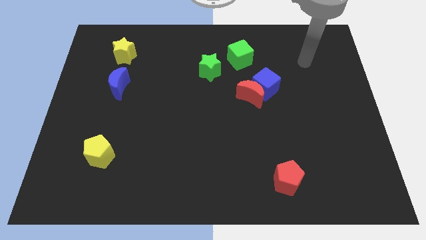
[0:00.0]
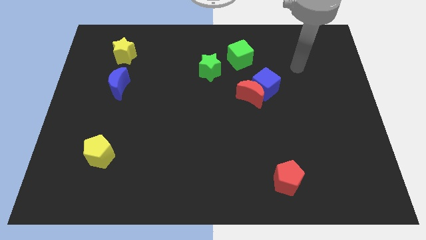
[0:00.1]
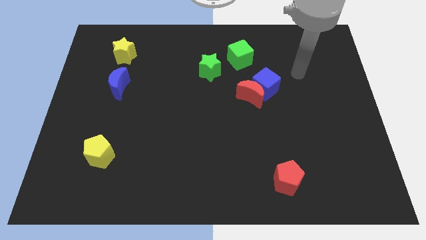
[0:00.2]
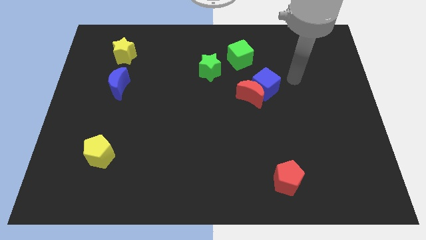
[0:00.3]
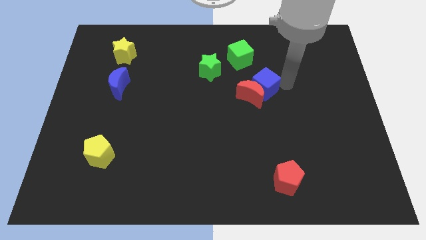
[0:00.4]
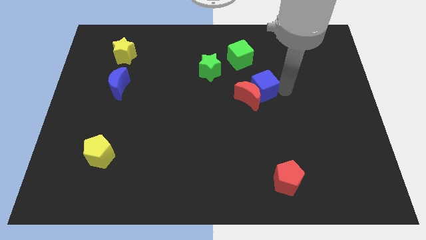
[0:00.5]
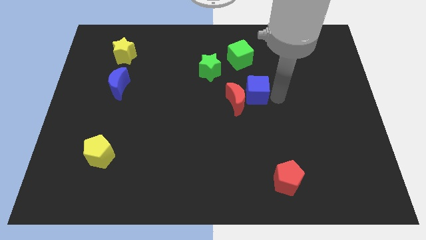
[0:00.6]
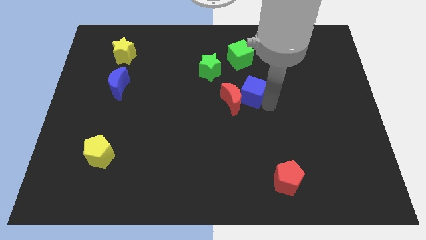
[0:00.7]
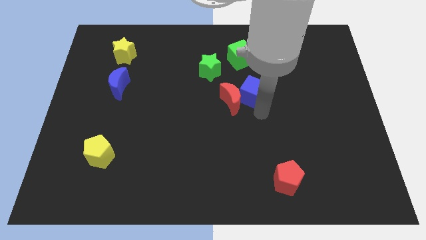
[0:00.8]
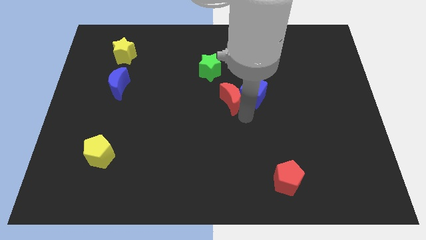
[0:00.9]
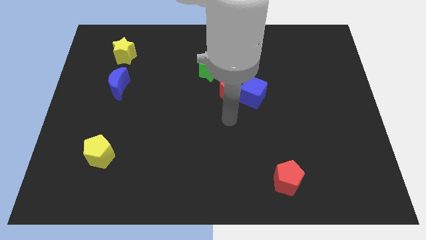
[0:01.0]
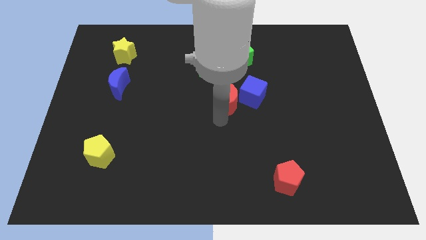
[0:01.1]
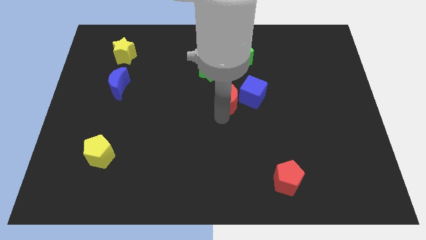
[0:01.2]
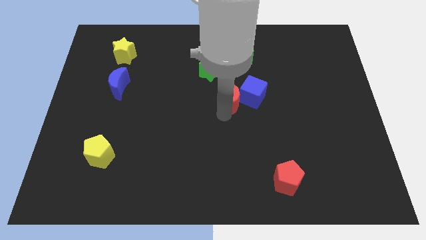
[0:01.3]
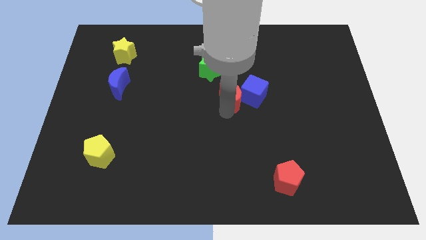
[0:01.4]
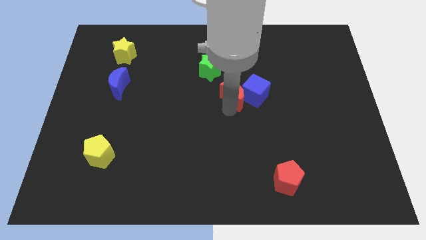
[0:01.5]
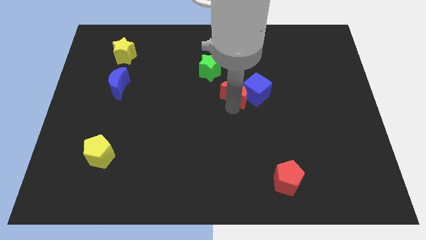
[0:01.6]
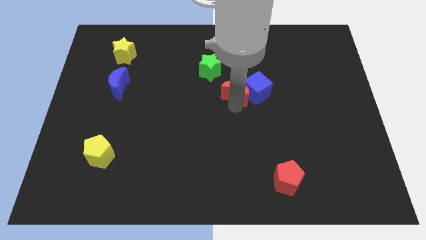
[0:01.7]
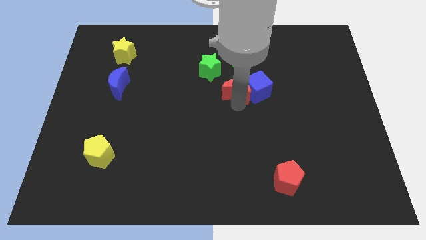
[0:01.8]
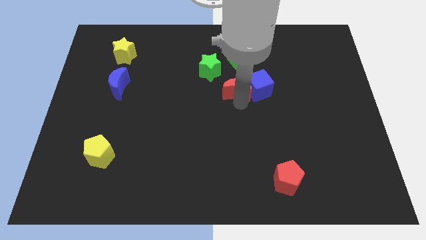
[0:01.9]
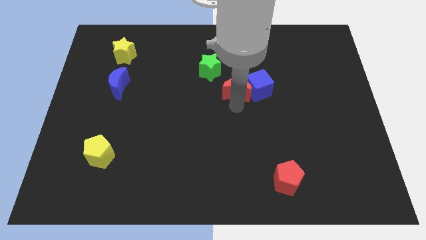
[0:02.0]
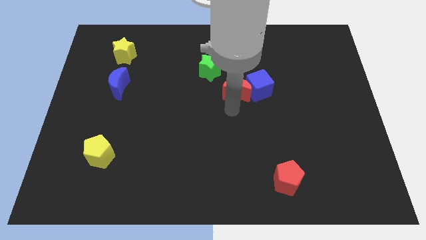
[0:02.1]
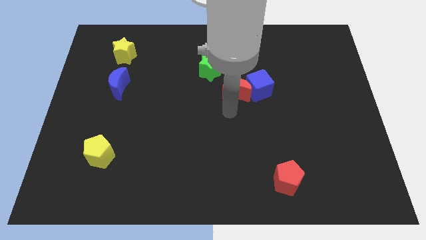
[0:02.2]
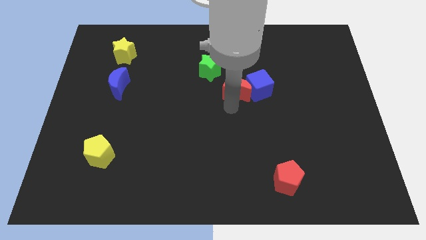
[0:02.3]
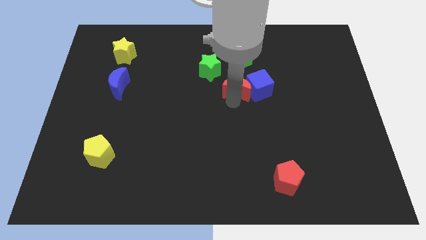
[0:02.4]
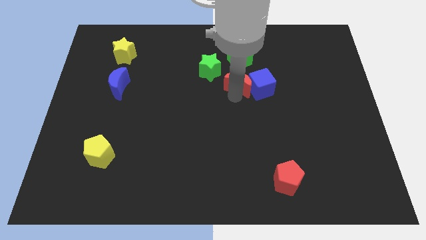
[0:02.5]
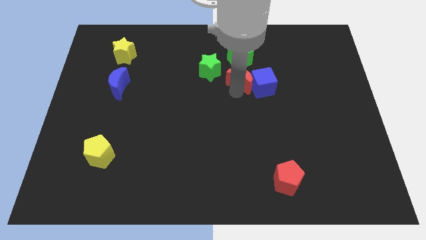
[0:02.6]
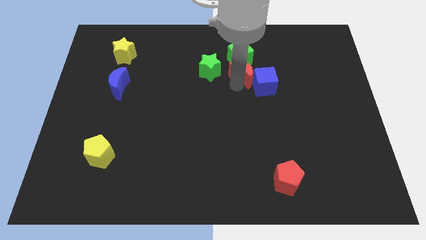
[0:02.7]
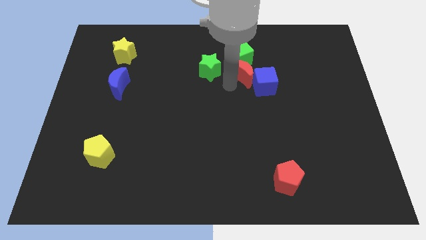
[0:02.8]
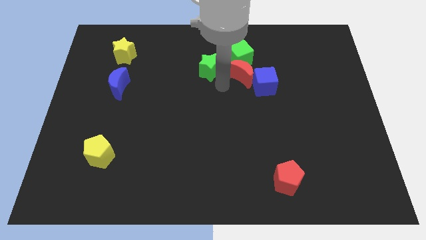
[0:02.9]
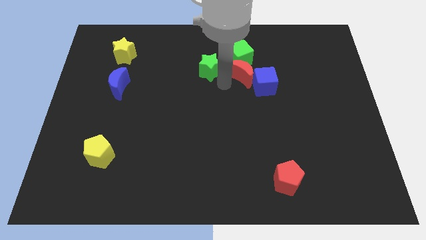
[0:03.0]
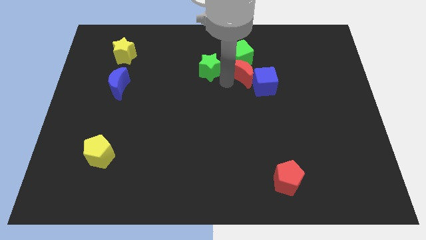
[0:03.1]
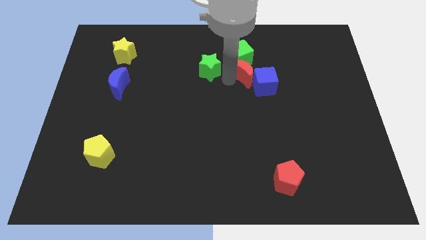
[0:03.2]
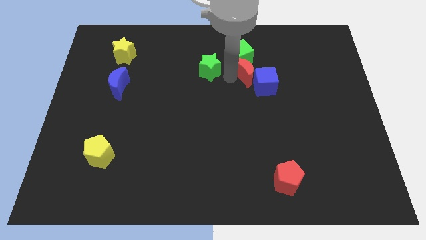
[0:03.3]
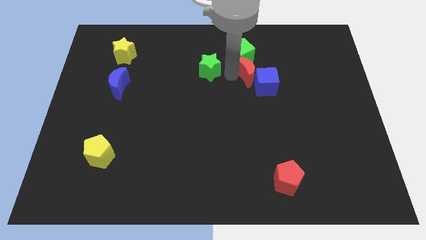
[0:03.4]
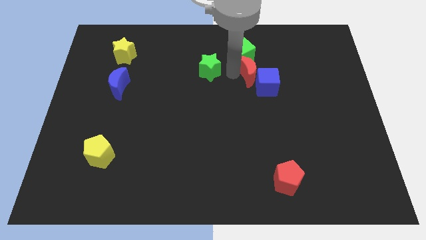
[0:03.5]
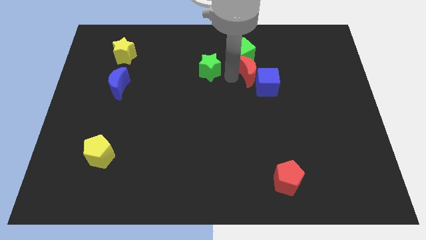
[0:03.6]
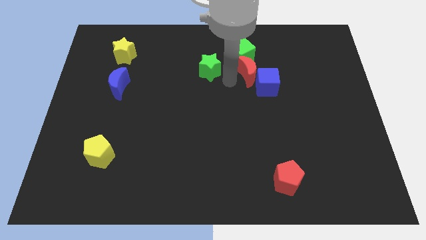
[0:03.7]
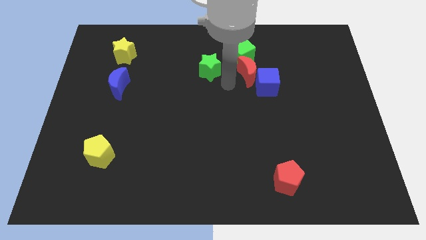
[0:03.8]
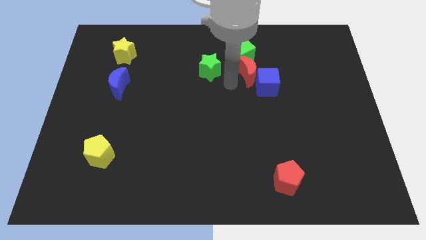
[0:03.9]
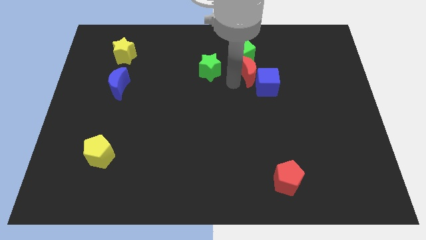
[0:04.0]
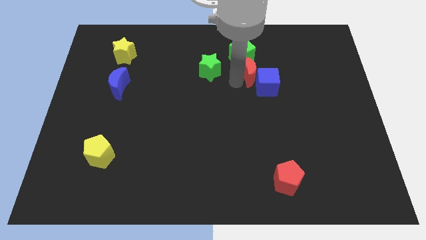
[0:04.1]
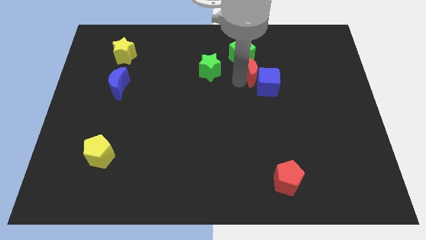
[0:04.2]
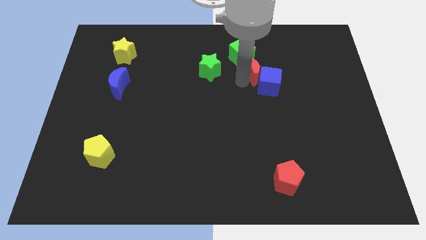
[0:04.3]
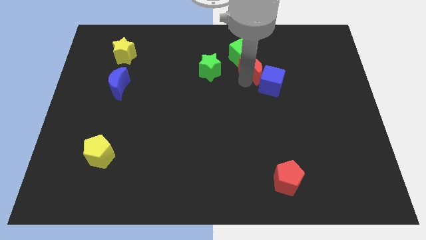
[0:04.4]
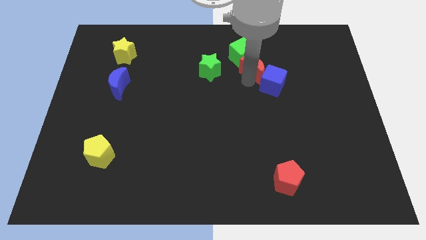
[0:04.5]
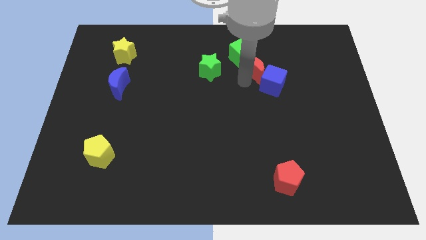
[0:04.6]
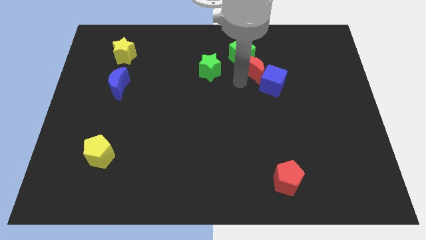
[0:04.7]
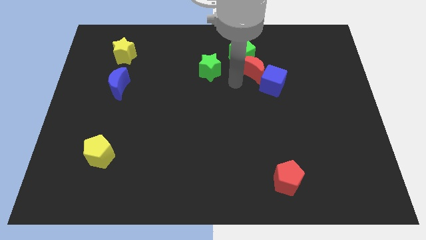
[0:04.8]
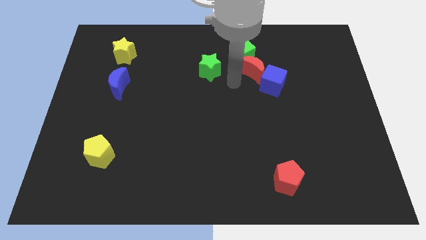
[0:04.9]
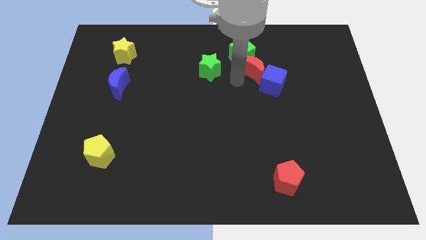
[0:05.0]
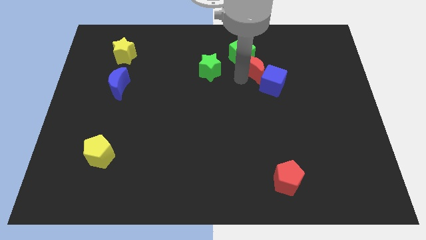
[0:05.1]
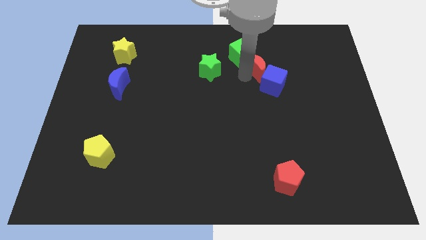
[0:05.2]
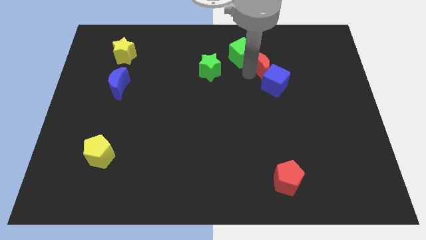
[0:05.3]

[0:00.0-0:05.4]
slide the red moon diagonally upwards and right a bit

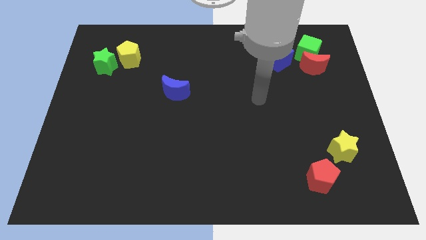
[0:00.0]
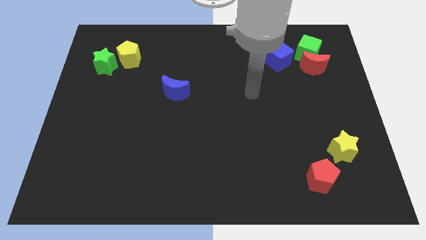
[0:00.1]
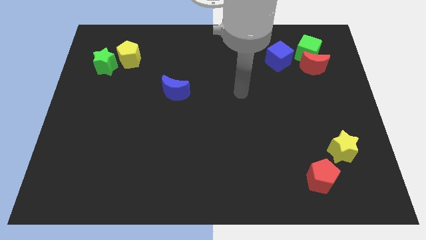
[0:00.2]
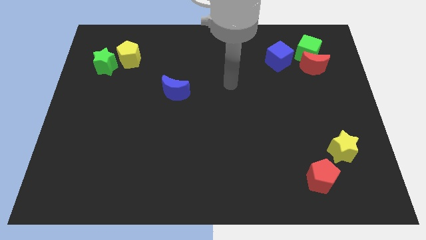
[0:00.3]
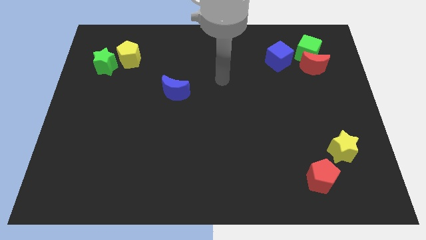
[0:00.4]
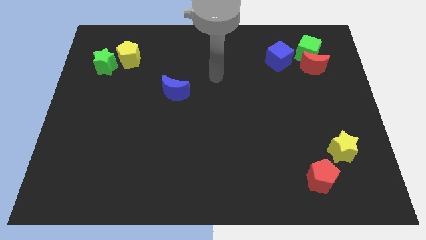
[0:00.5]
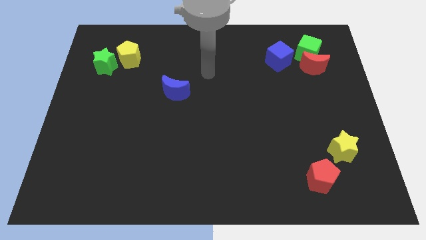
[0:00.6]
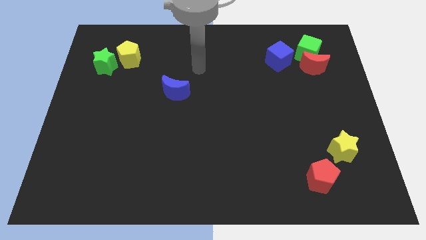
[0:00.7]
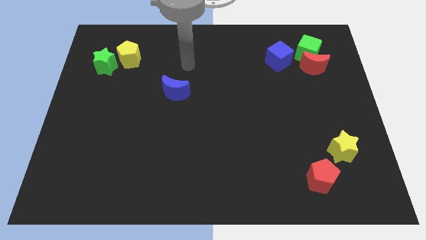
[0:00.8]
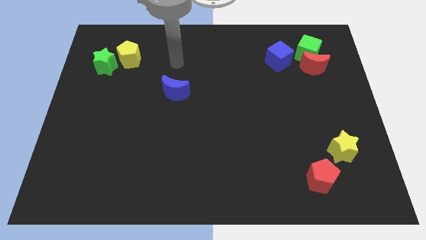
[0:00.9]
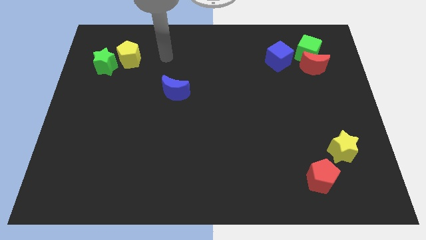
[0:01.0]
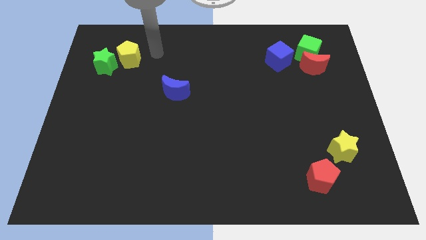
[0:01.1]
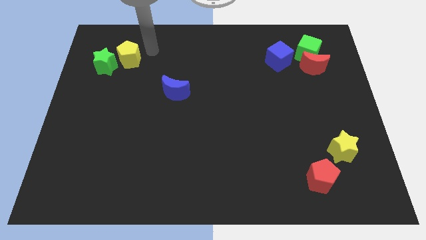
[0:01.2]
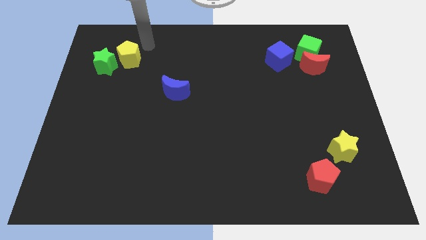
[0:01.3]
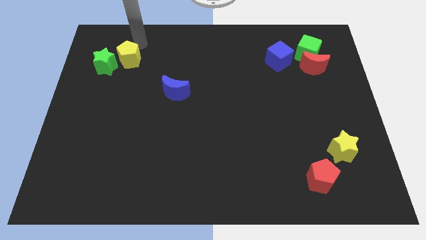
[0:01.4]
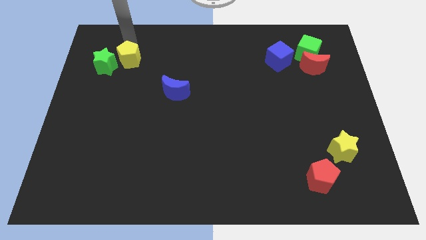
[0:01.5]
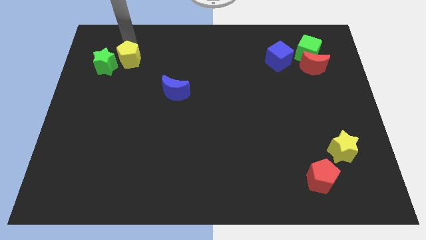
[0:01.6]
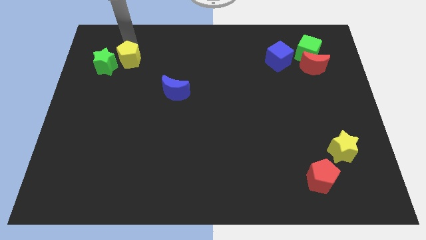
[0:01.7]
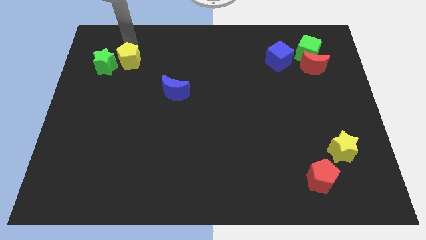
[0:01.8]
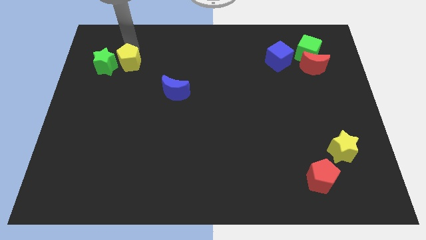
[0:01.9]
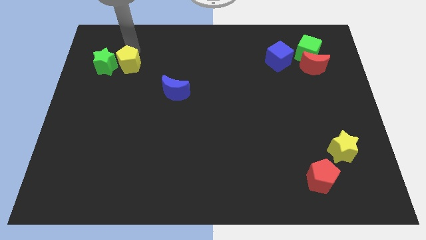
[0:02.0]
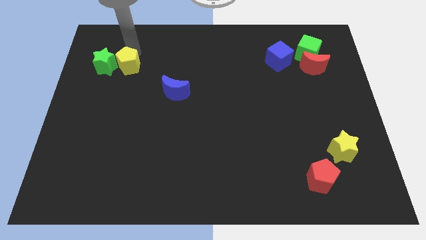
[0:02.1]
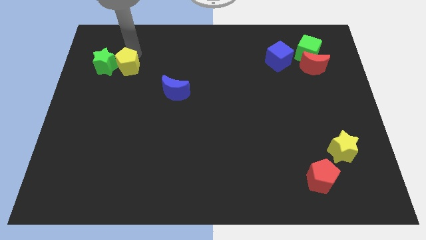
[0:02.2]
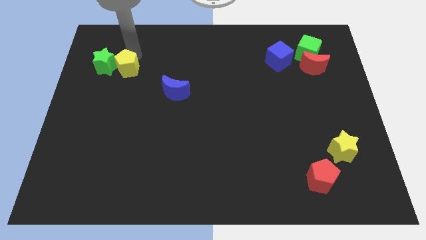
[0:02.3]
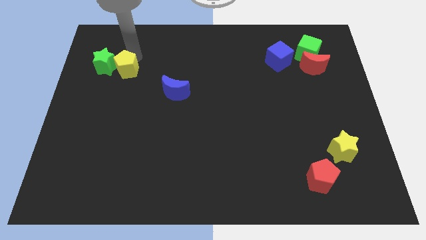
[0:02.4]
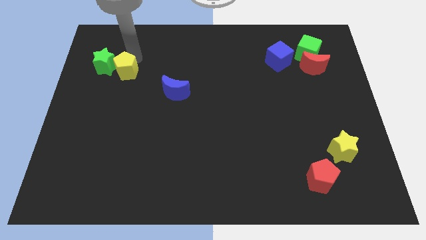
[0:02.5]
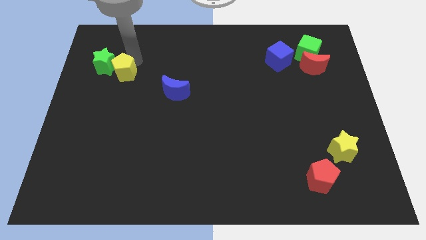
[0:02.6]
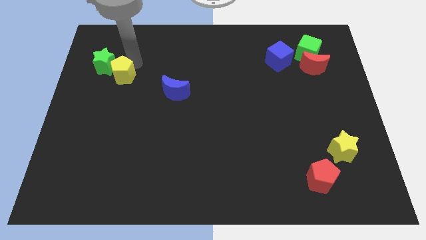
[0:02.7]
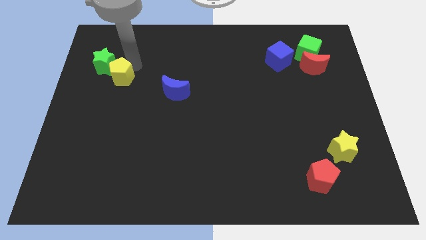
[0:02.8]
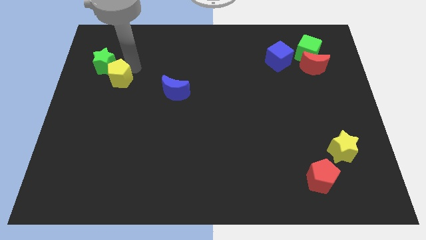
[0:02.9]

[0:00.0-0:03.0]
push the yellow pentagon down a bit
